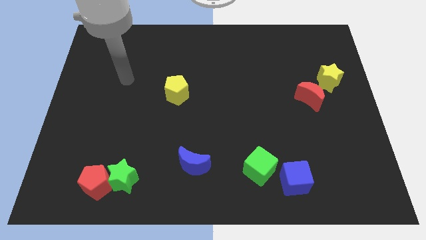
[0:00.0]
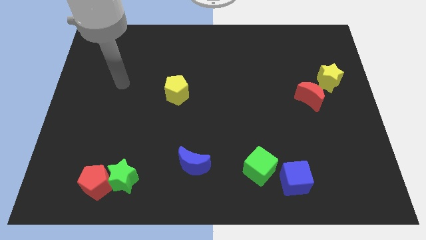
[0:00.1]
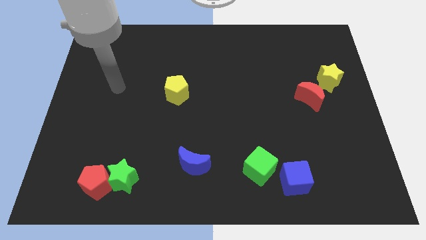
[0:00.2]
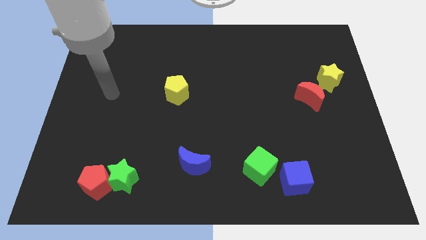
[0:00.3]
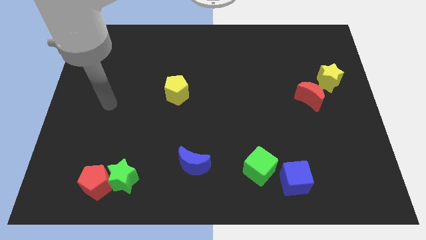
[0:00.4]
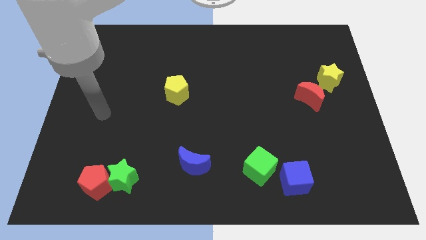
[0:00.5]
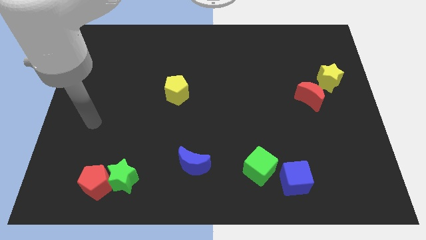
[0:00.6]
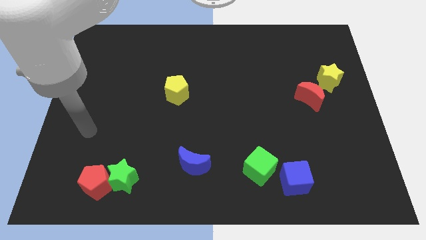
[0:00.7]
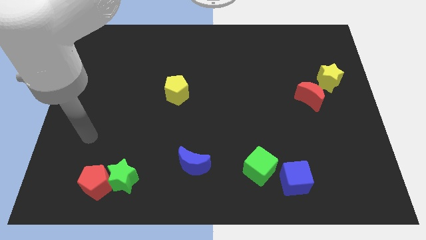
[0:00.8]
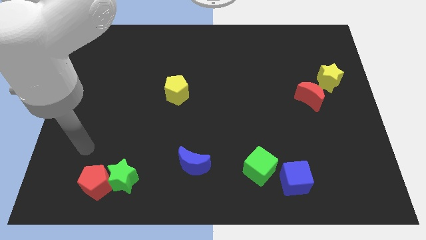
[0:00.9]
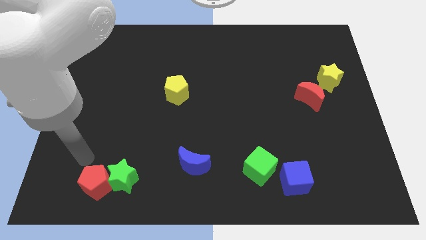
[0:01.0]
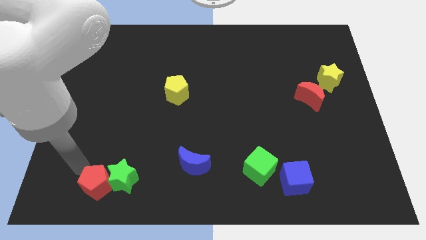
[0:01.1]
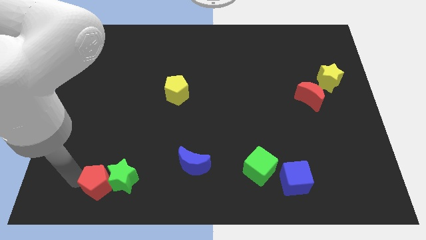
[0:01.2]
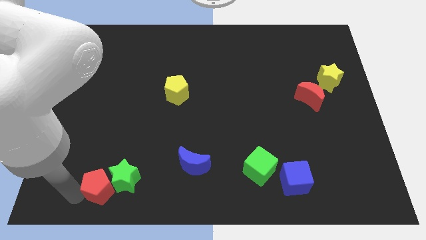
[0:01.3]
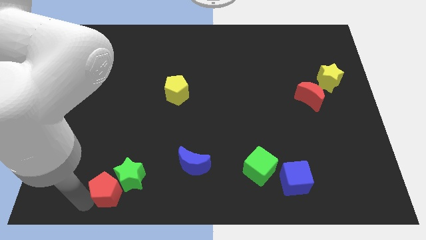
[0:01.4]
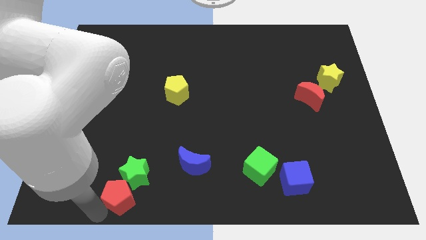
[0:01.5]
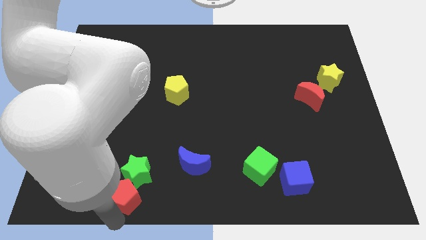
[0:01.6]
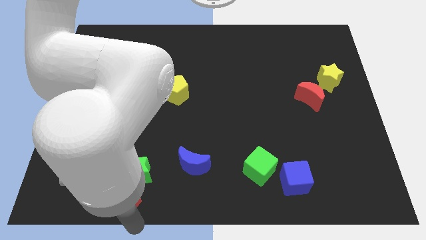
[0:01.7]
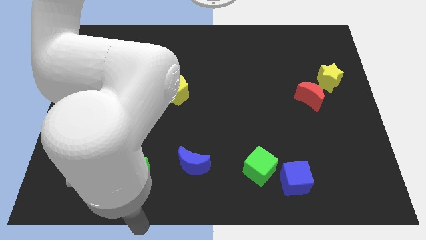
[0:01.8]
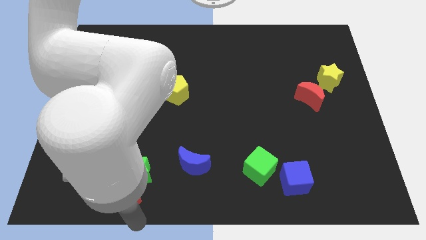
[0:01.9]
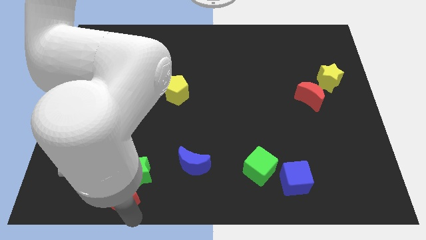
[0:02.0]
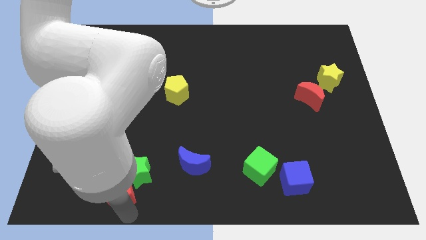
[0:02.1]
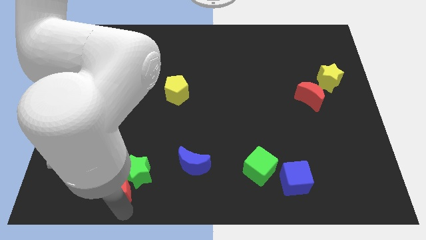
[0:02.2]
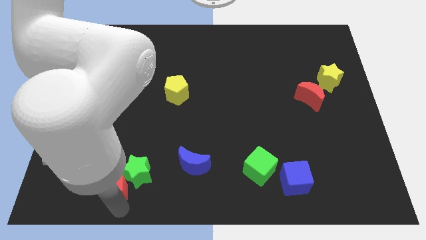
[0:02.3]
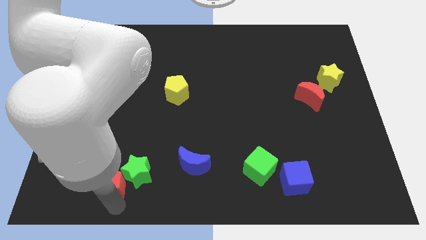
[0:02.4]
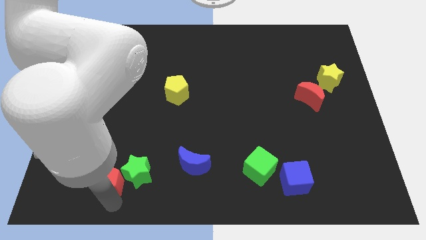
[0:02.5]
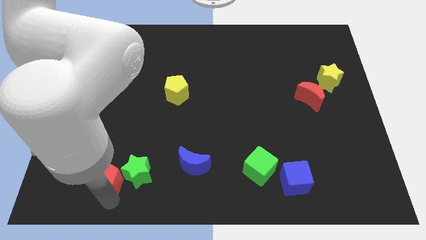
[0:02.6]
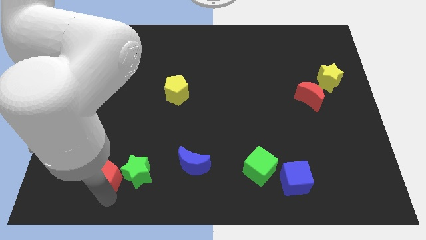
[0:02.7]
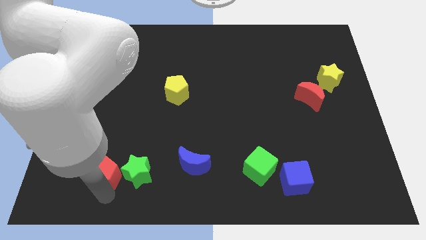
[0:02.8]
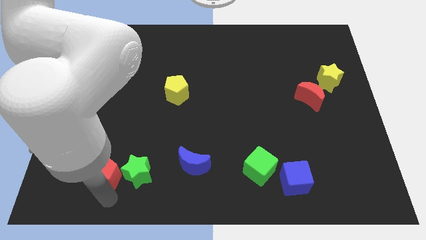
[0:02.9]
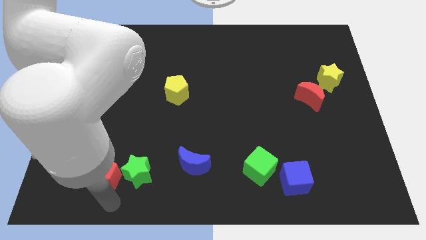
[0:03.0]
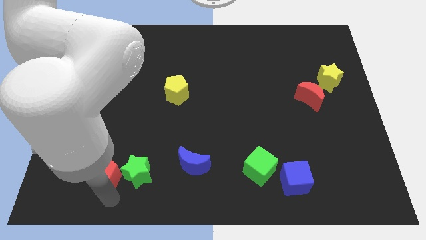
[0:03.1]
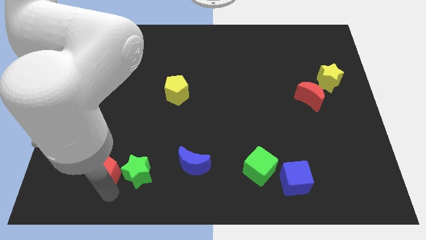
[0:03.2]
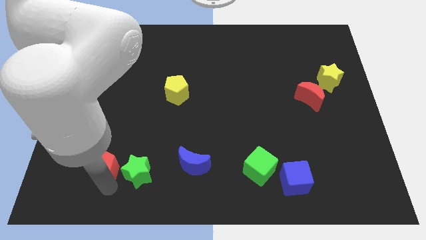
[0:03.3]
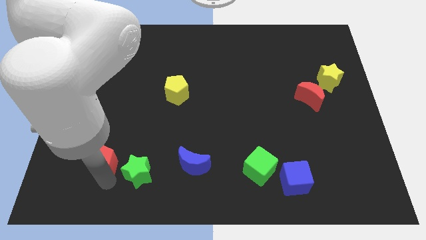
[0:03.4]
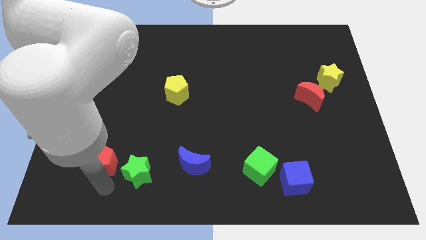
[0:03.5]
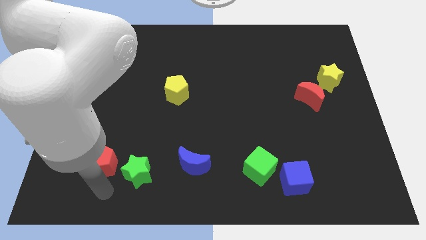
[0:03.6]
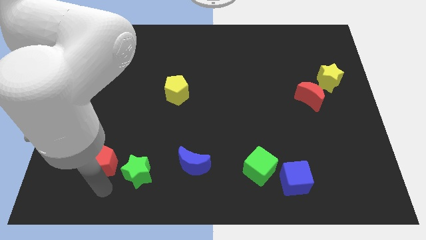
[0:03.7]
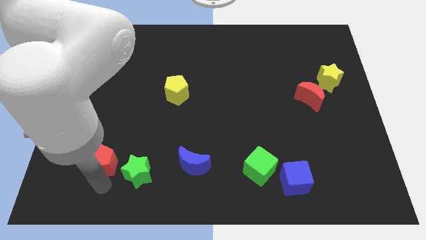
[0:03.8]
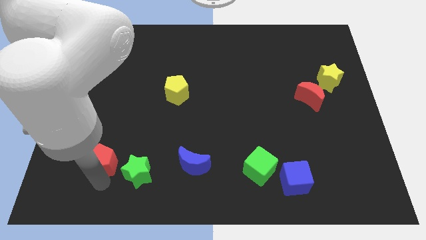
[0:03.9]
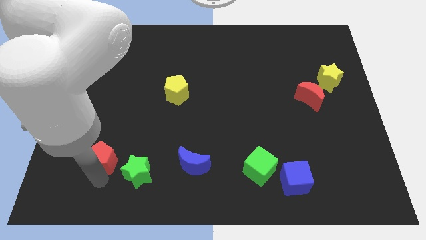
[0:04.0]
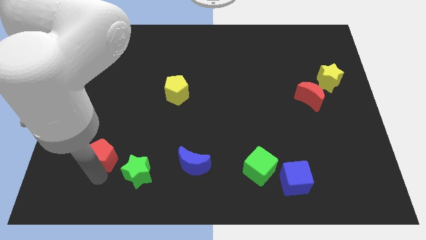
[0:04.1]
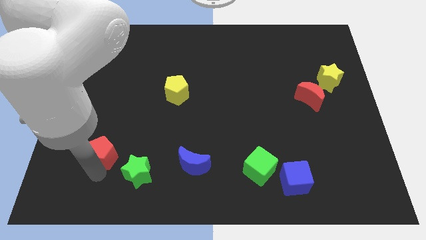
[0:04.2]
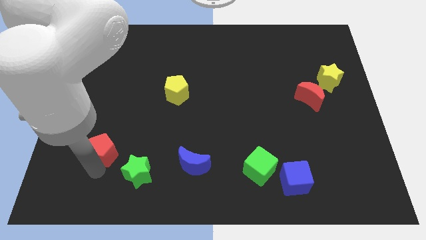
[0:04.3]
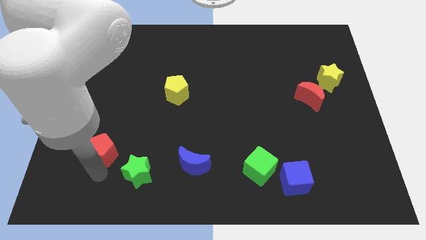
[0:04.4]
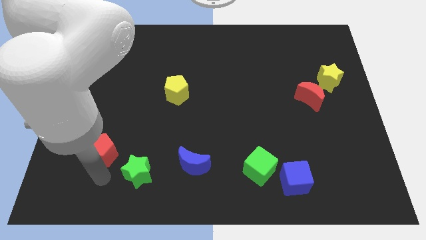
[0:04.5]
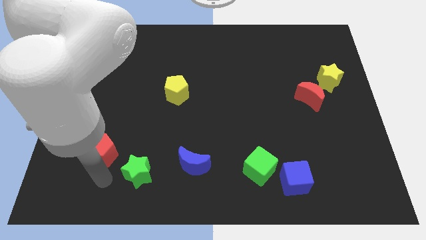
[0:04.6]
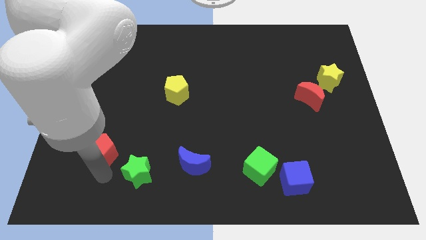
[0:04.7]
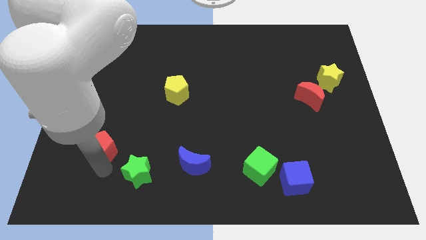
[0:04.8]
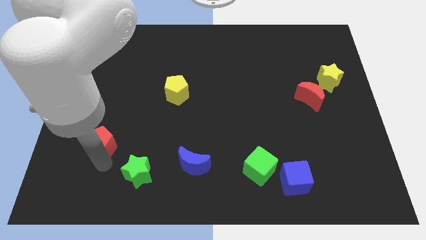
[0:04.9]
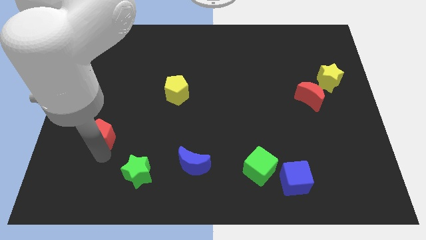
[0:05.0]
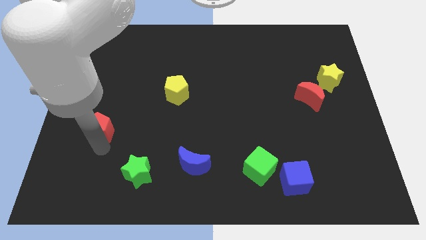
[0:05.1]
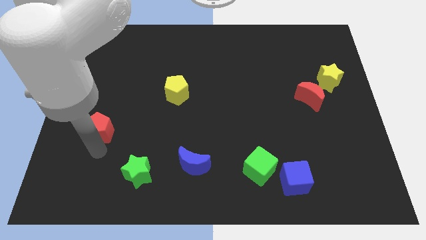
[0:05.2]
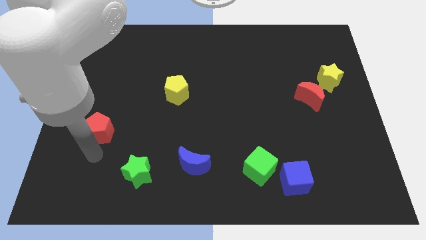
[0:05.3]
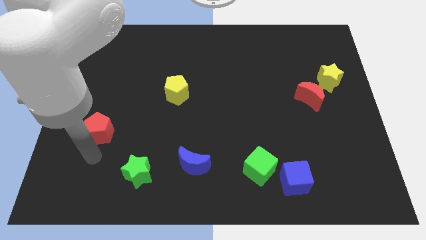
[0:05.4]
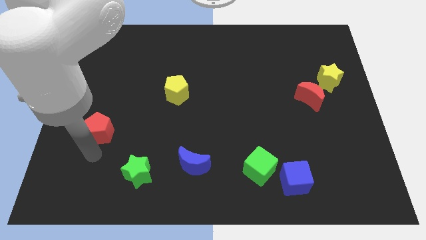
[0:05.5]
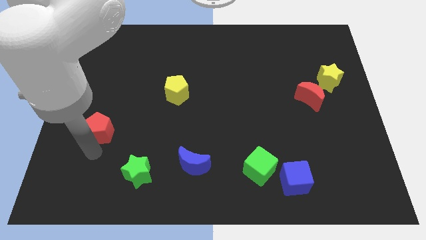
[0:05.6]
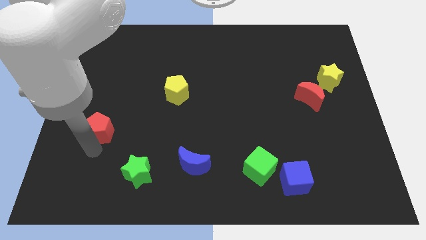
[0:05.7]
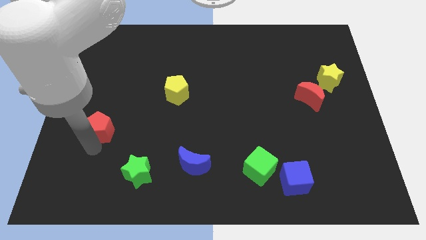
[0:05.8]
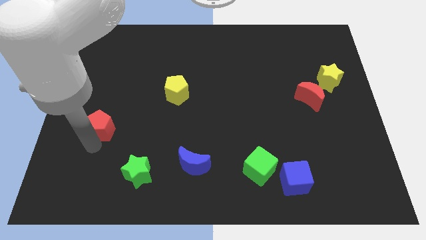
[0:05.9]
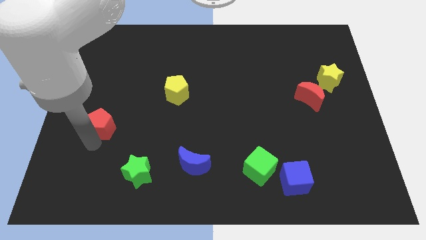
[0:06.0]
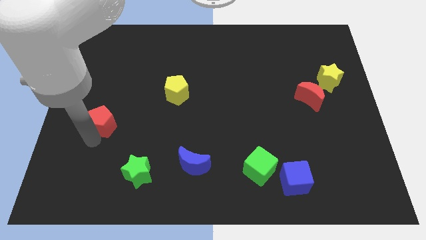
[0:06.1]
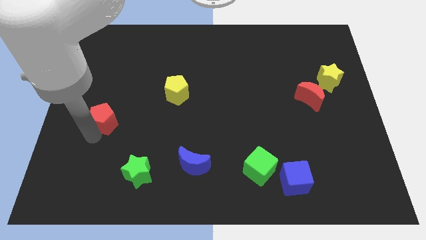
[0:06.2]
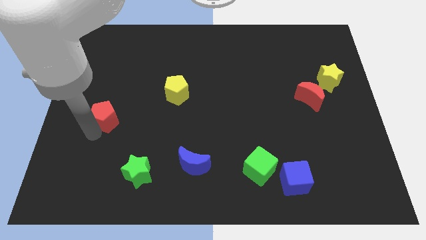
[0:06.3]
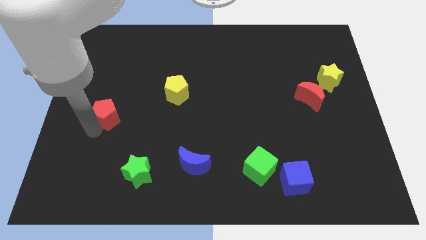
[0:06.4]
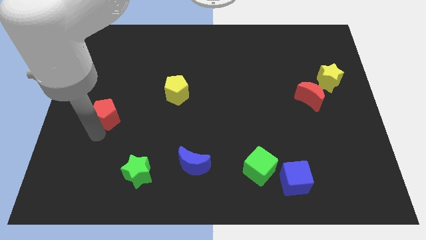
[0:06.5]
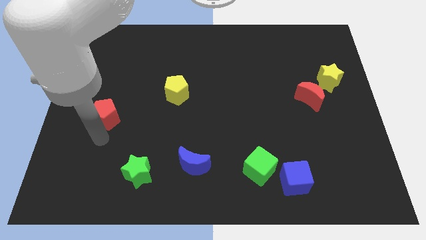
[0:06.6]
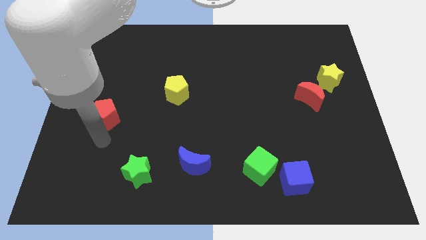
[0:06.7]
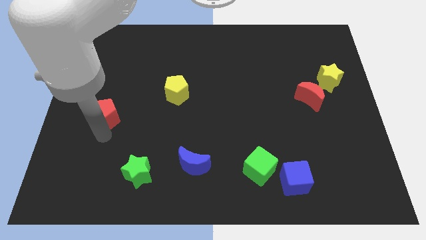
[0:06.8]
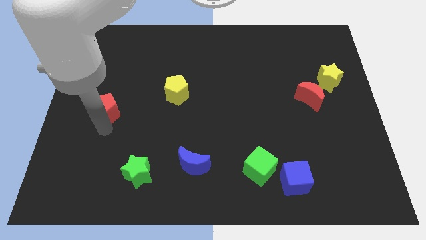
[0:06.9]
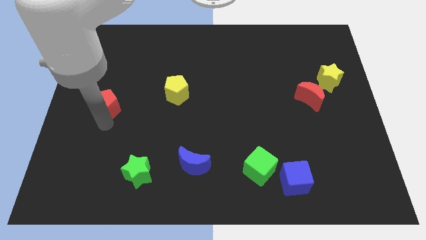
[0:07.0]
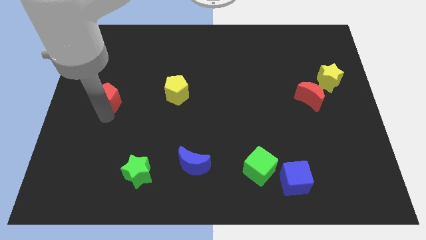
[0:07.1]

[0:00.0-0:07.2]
slide the red pentagon upwards

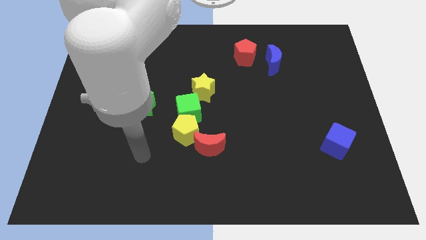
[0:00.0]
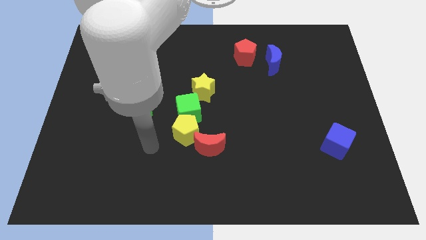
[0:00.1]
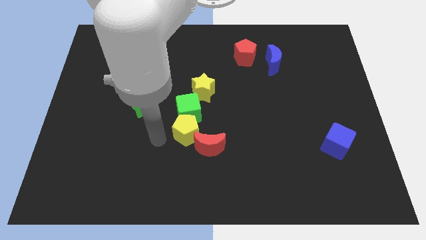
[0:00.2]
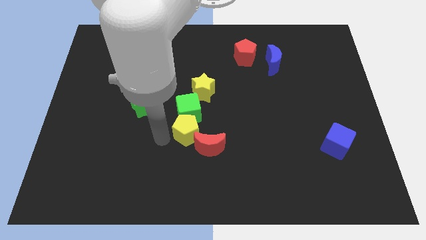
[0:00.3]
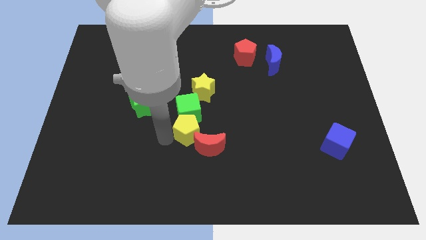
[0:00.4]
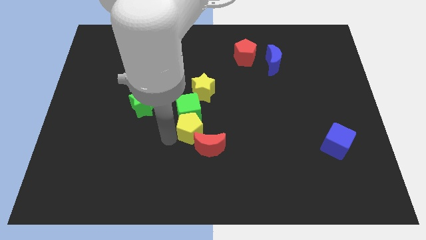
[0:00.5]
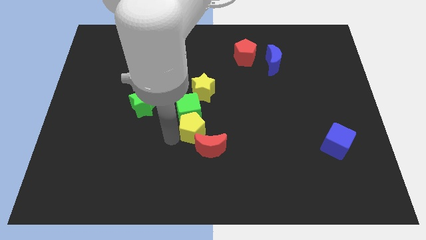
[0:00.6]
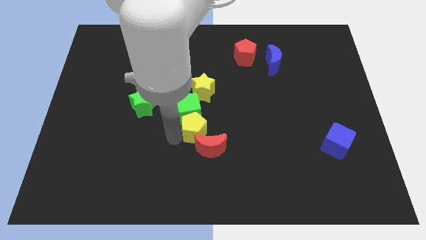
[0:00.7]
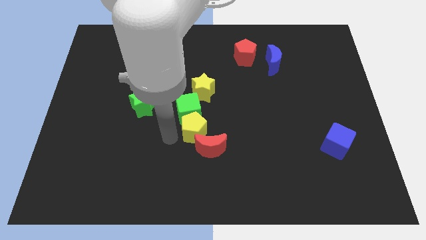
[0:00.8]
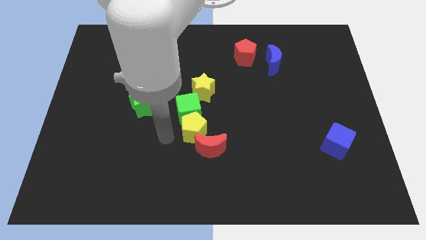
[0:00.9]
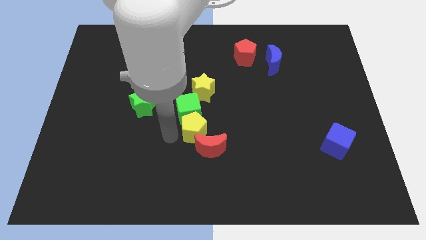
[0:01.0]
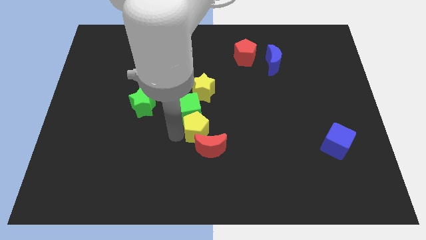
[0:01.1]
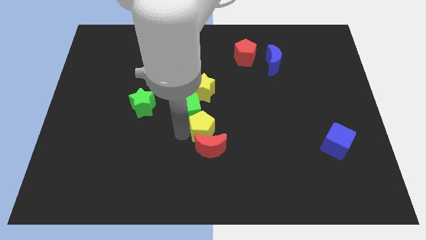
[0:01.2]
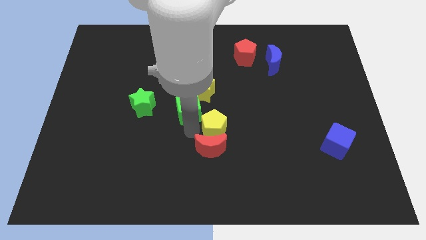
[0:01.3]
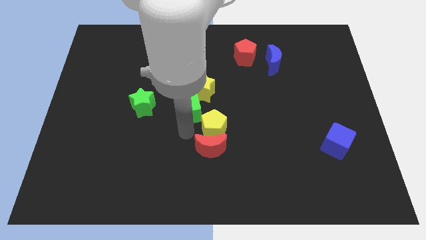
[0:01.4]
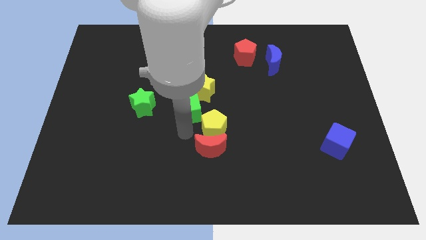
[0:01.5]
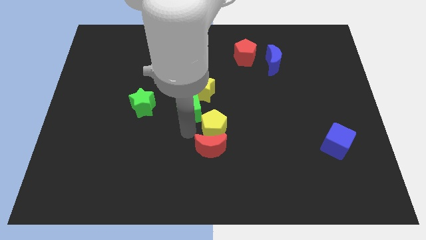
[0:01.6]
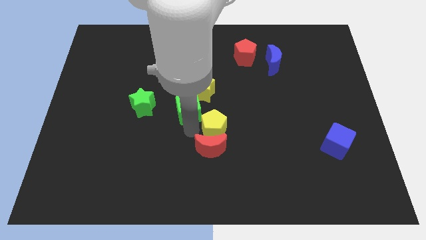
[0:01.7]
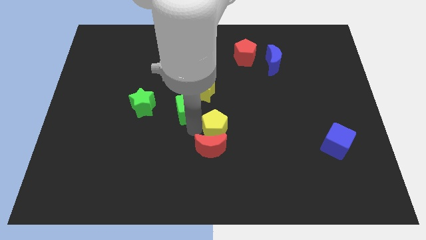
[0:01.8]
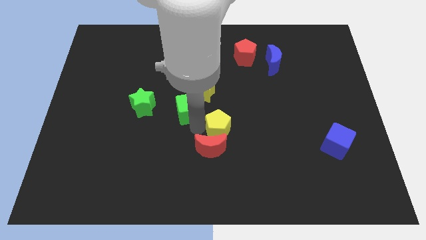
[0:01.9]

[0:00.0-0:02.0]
push the yellow pentagon slightly right
